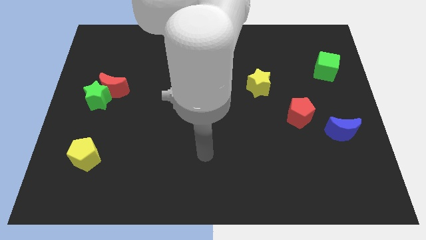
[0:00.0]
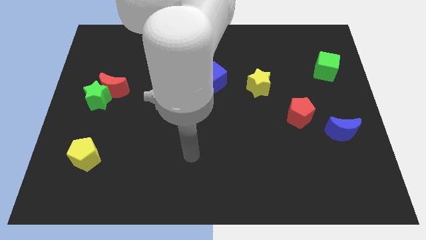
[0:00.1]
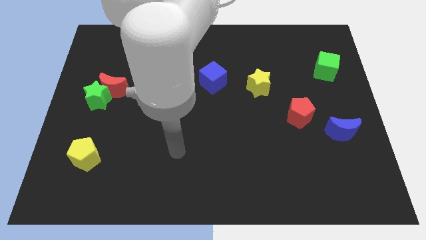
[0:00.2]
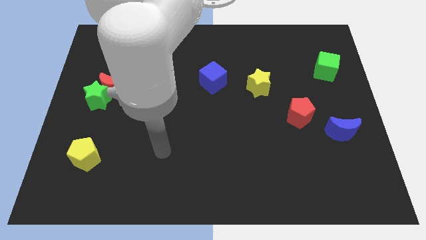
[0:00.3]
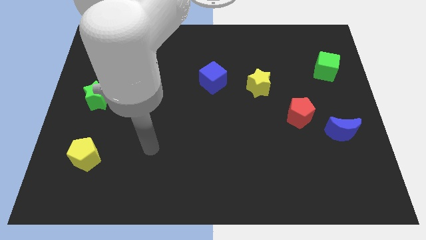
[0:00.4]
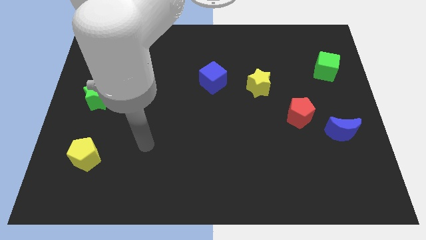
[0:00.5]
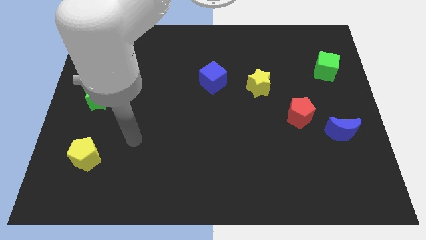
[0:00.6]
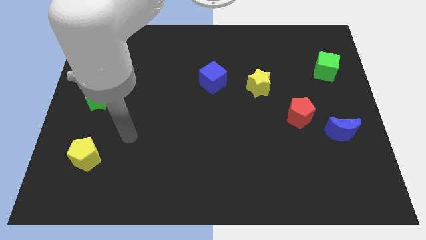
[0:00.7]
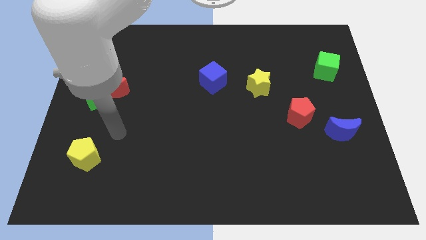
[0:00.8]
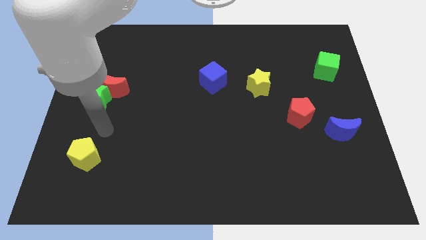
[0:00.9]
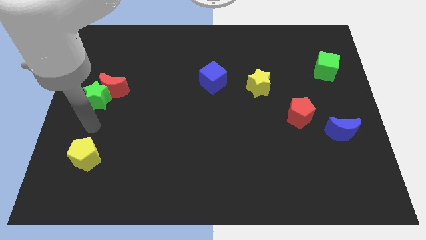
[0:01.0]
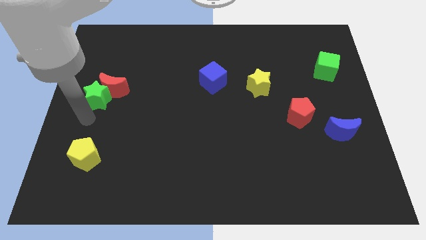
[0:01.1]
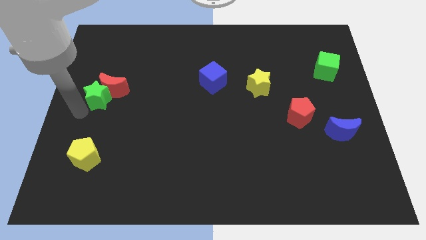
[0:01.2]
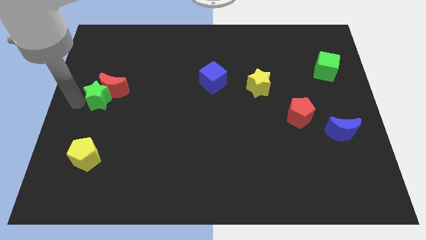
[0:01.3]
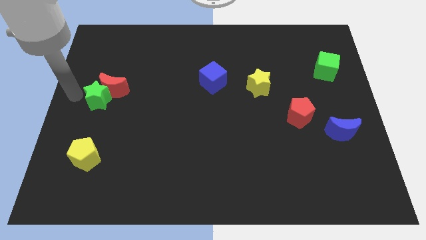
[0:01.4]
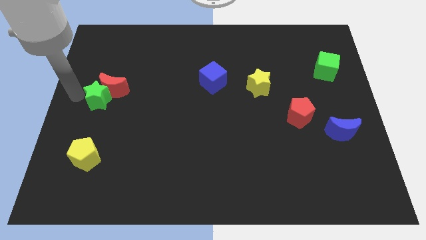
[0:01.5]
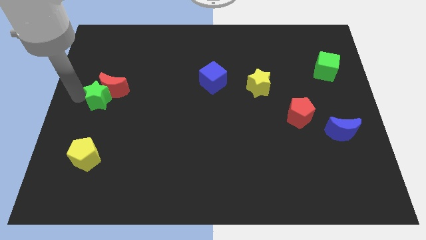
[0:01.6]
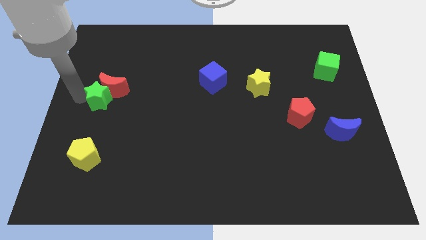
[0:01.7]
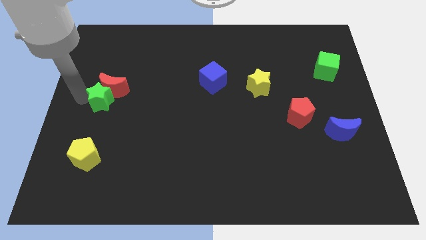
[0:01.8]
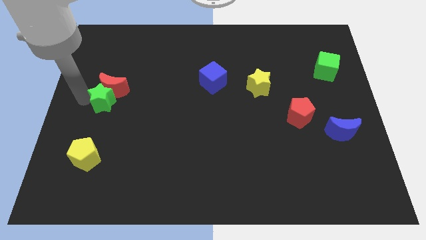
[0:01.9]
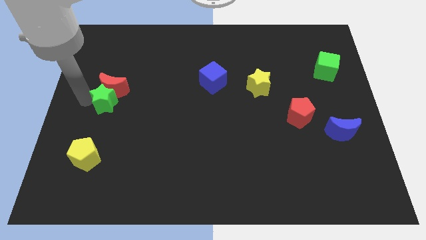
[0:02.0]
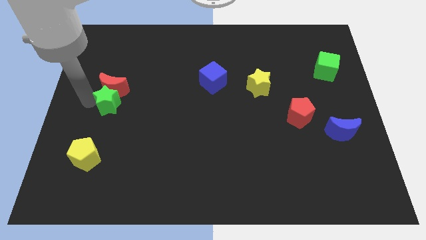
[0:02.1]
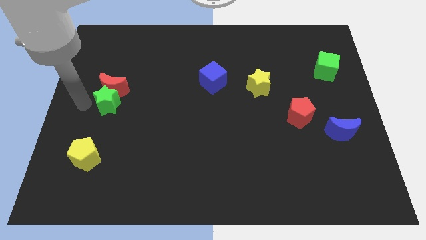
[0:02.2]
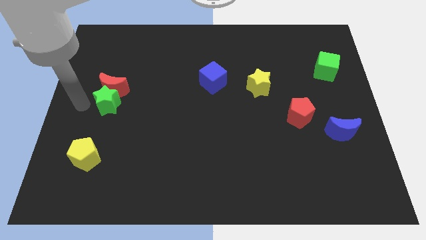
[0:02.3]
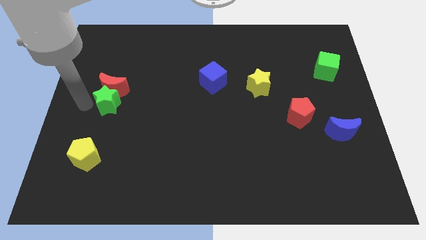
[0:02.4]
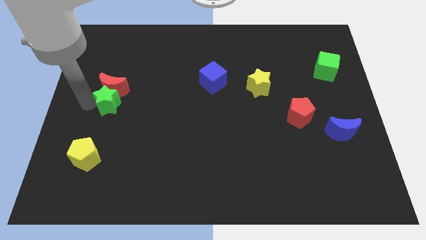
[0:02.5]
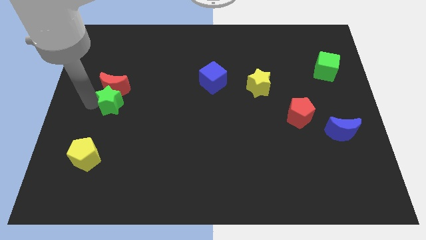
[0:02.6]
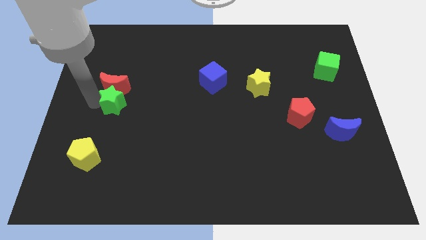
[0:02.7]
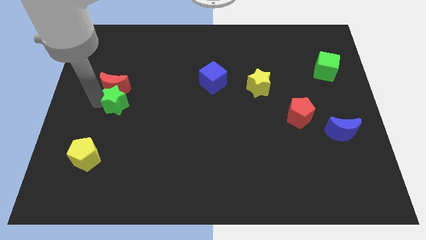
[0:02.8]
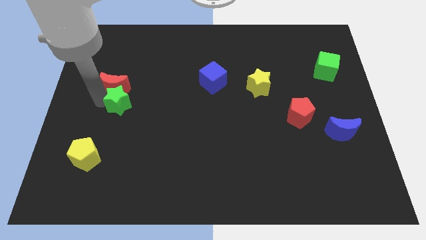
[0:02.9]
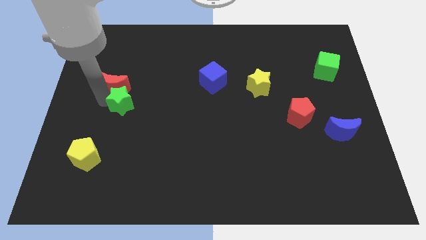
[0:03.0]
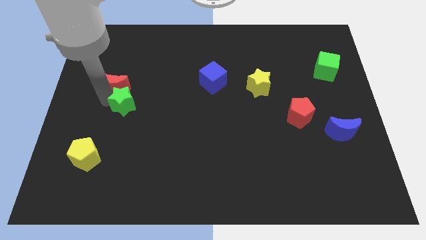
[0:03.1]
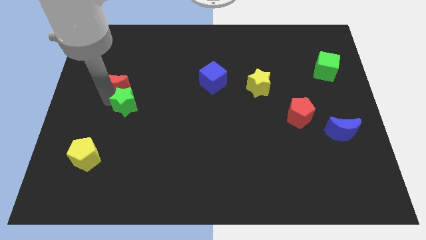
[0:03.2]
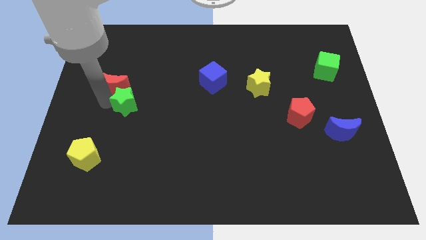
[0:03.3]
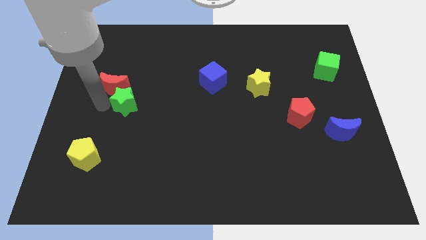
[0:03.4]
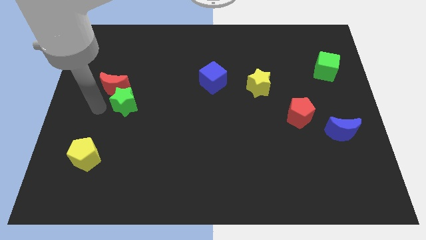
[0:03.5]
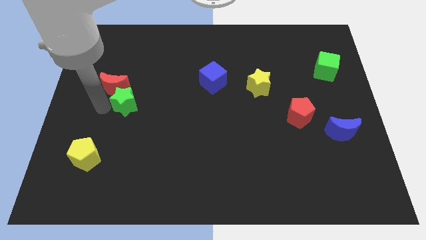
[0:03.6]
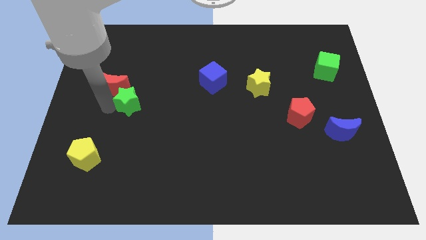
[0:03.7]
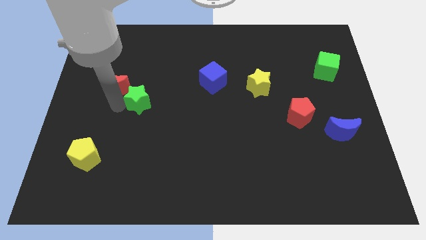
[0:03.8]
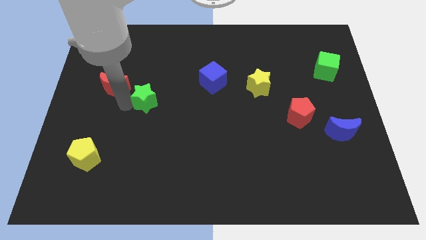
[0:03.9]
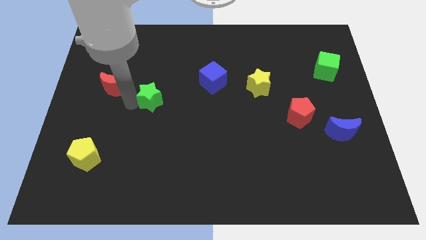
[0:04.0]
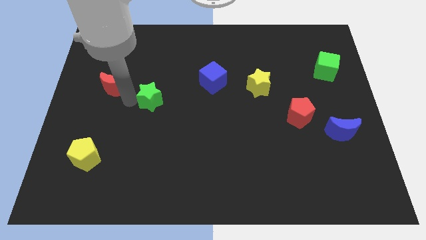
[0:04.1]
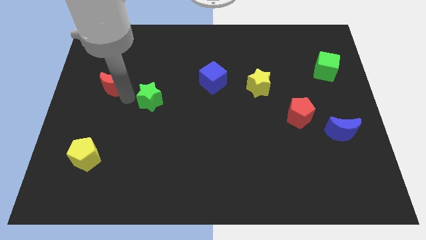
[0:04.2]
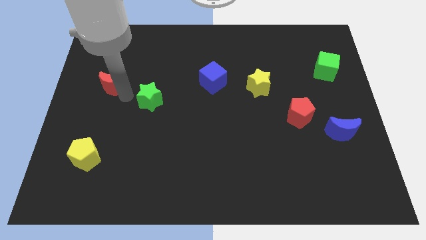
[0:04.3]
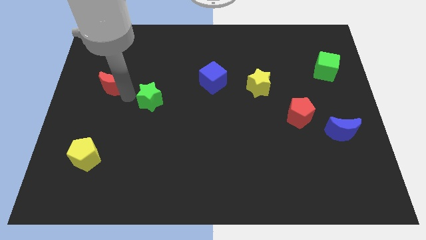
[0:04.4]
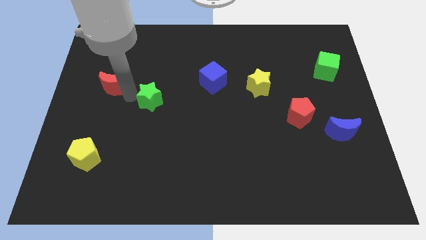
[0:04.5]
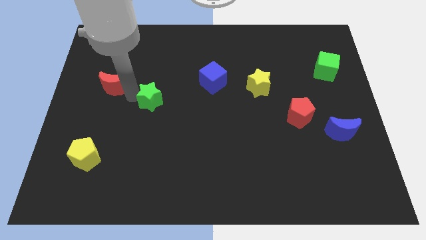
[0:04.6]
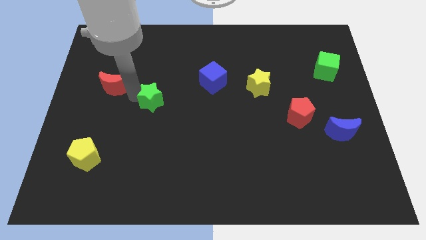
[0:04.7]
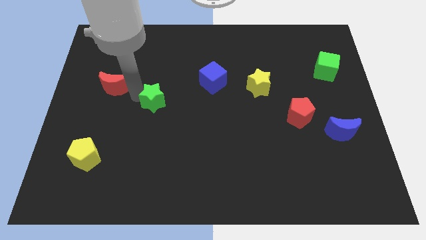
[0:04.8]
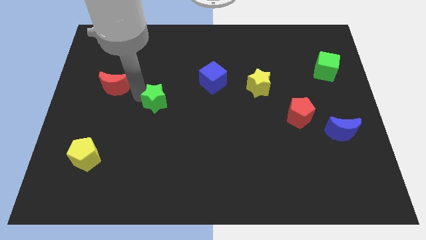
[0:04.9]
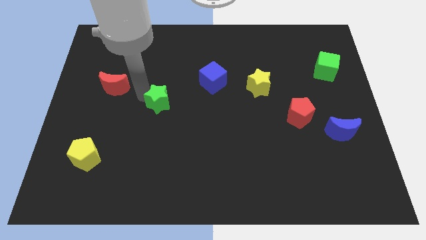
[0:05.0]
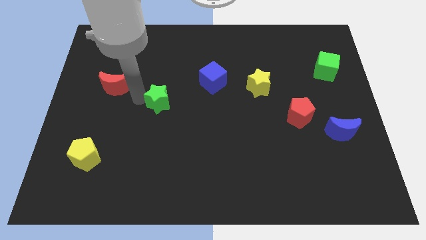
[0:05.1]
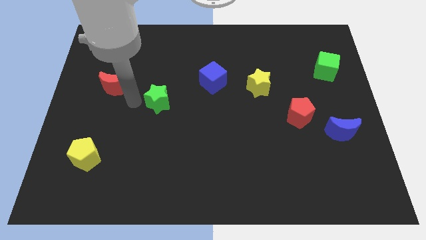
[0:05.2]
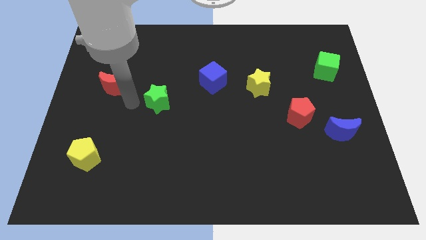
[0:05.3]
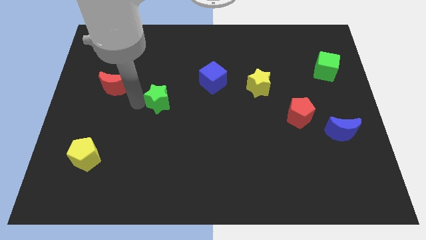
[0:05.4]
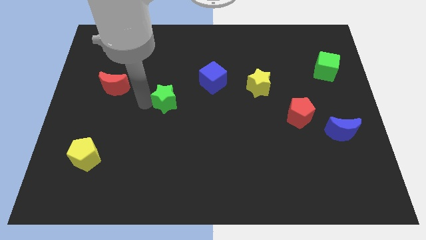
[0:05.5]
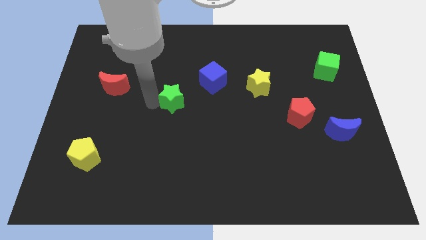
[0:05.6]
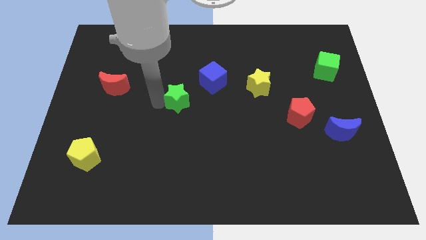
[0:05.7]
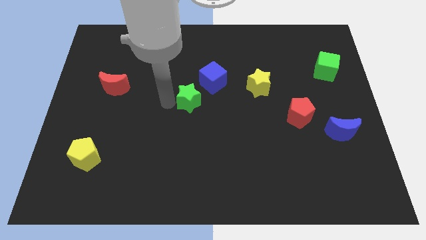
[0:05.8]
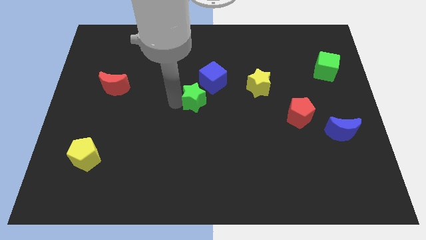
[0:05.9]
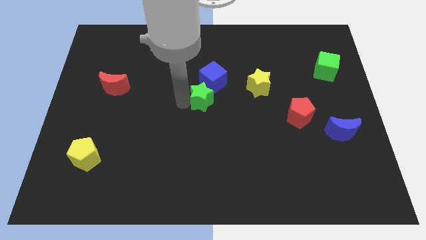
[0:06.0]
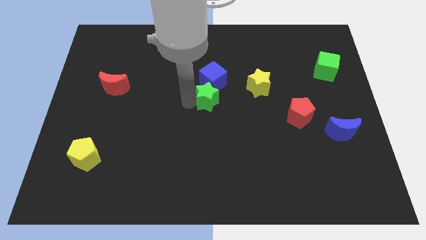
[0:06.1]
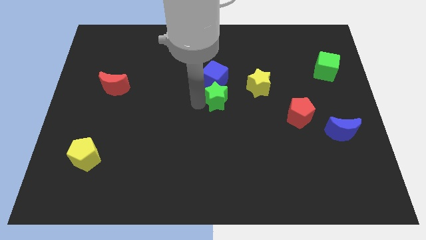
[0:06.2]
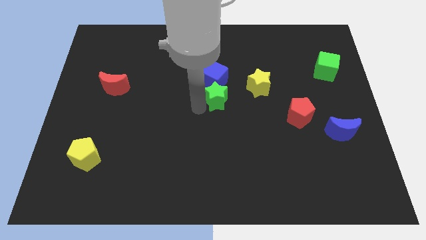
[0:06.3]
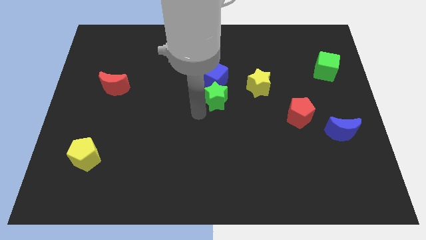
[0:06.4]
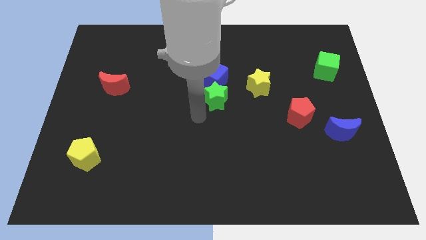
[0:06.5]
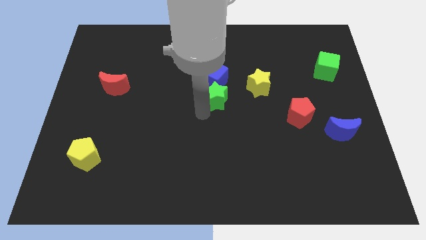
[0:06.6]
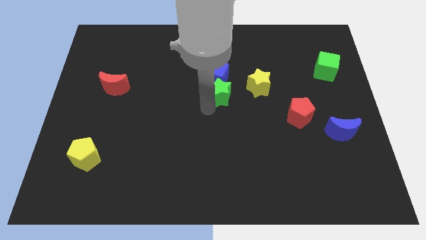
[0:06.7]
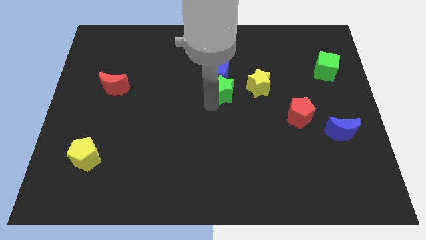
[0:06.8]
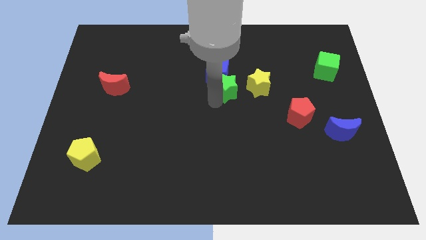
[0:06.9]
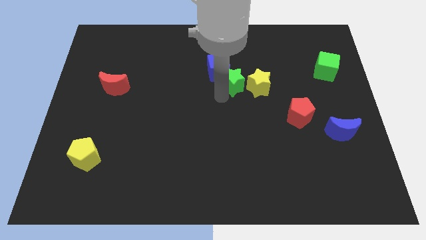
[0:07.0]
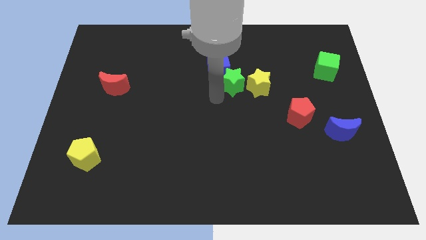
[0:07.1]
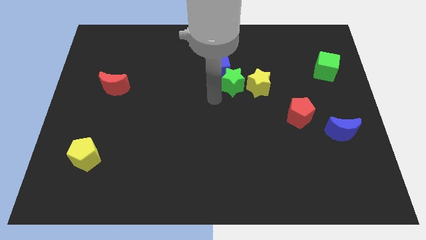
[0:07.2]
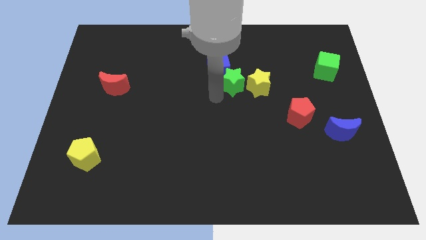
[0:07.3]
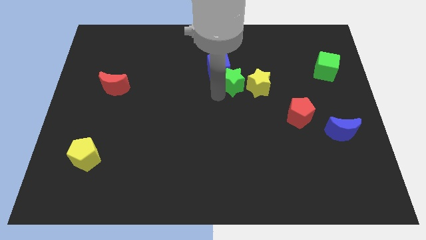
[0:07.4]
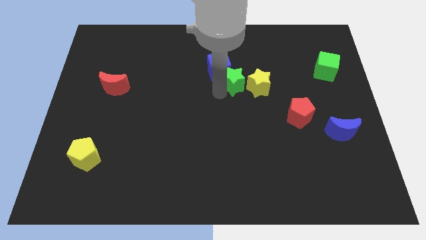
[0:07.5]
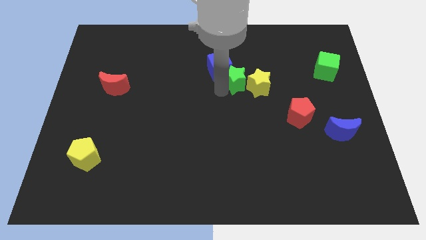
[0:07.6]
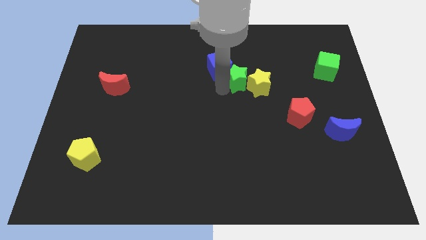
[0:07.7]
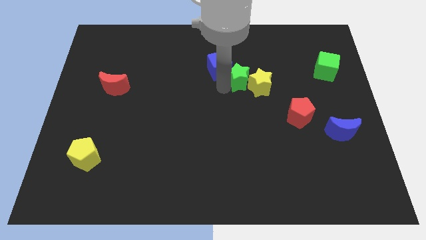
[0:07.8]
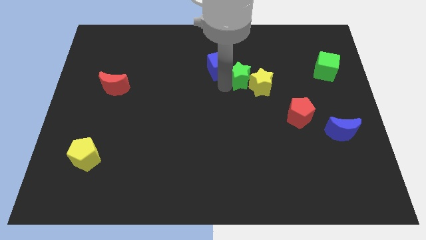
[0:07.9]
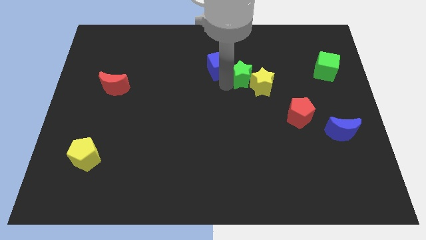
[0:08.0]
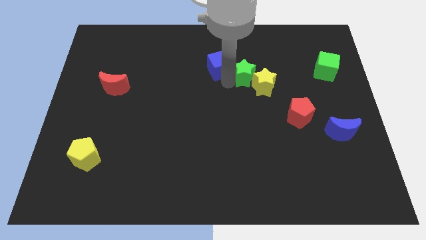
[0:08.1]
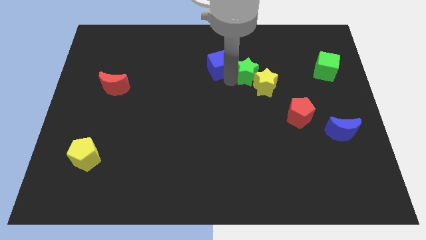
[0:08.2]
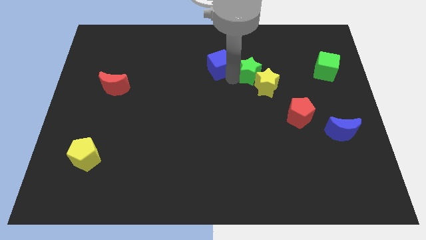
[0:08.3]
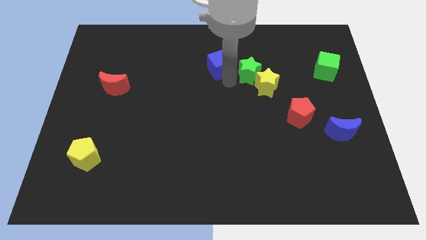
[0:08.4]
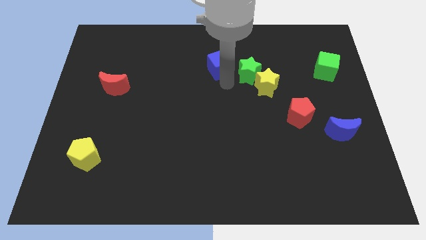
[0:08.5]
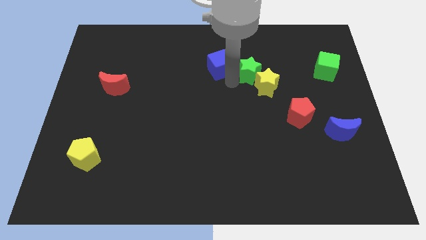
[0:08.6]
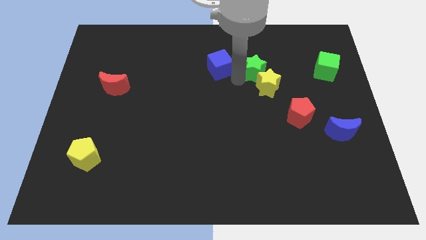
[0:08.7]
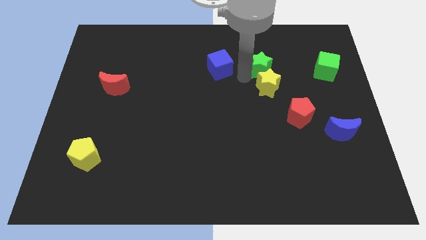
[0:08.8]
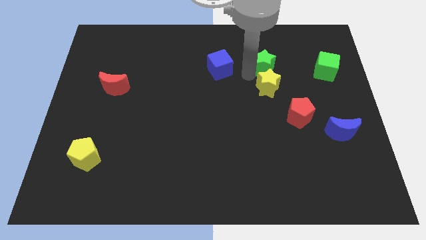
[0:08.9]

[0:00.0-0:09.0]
put the green star left of the green cube
